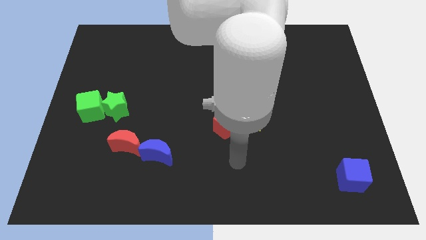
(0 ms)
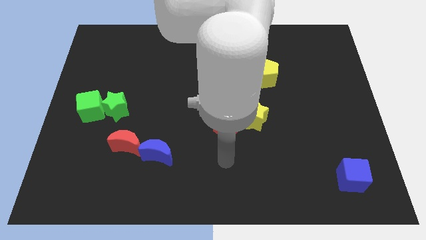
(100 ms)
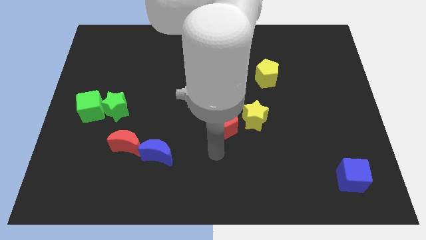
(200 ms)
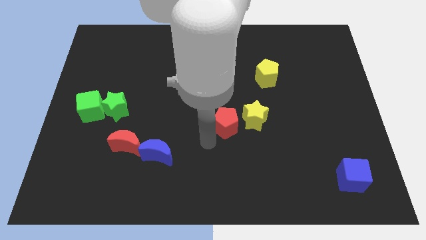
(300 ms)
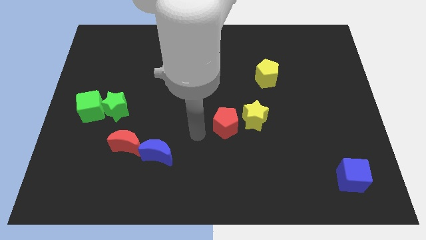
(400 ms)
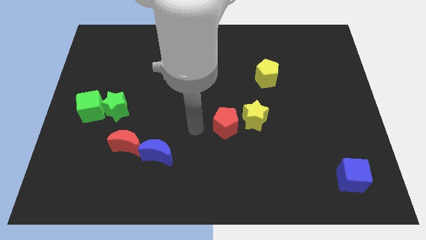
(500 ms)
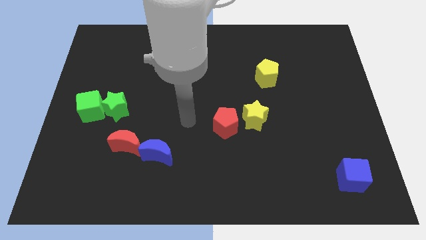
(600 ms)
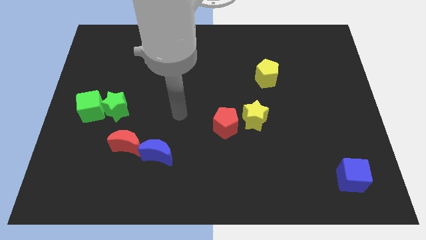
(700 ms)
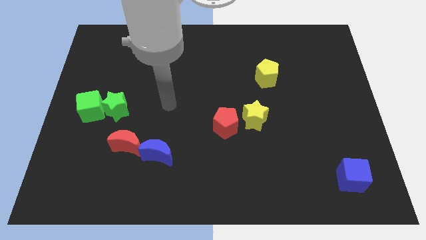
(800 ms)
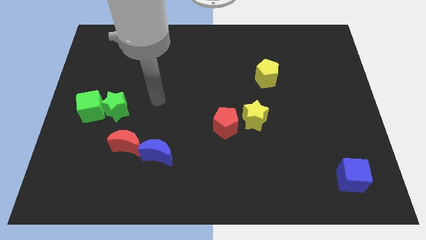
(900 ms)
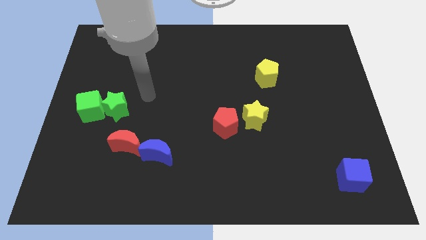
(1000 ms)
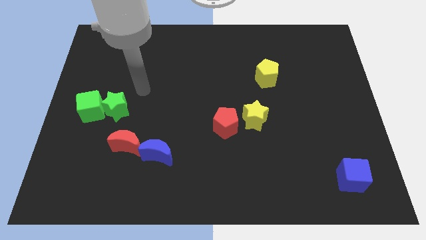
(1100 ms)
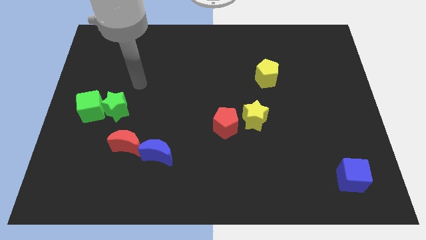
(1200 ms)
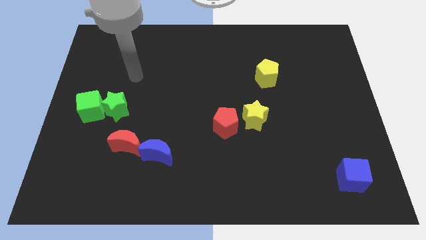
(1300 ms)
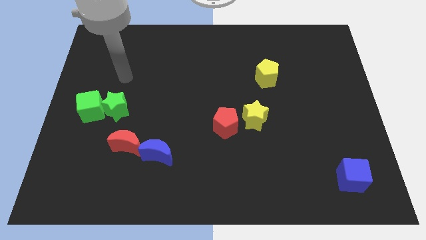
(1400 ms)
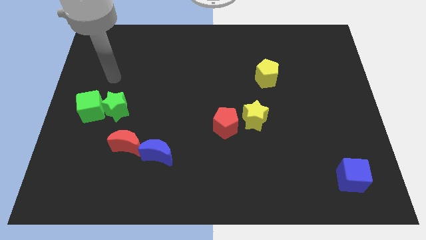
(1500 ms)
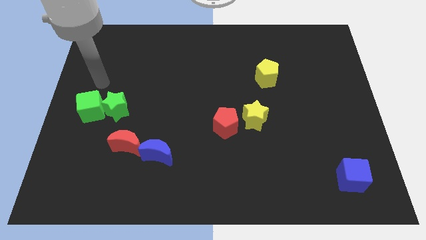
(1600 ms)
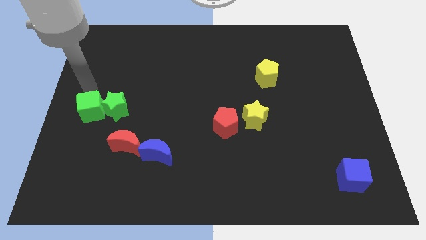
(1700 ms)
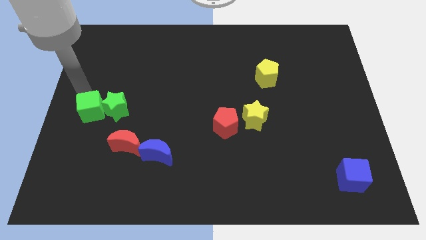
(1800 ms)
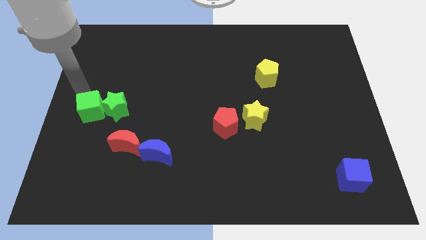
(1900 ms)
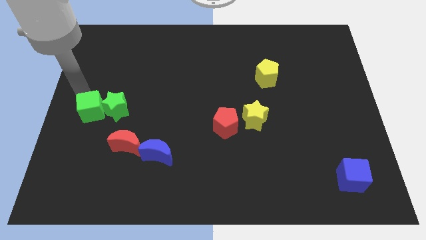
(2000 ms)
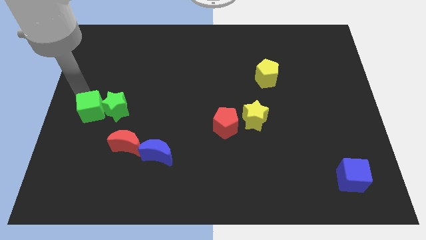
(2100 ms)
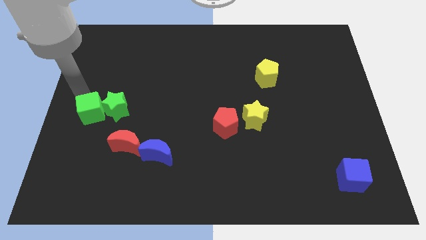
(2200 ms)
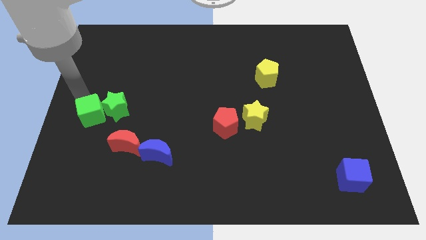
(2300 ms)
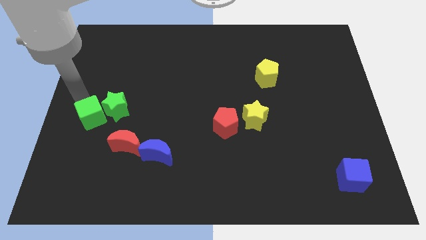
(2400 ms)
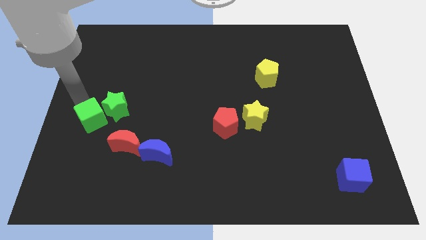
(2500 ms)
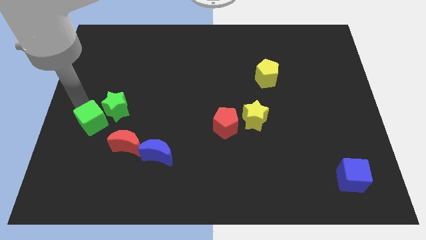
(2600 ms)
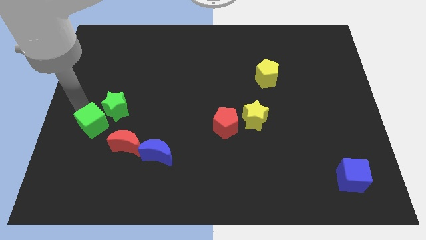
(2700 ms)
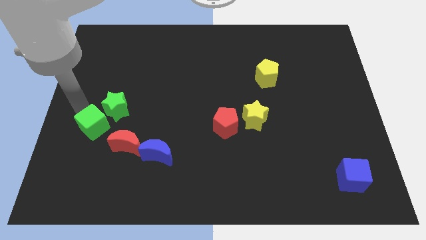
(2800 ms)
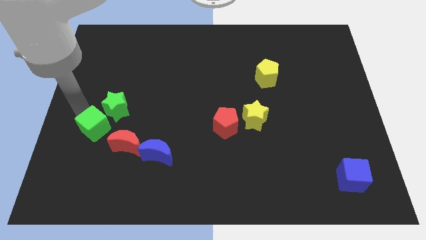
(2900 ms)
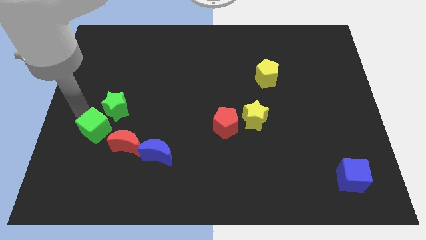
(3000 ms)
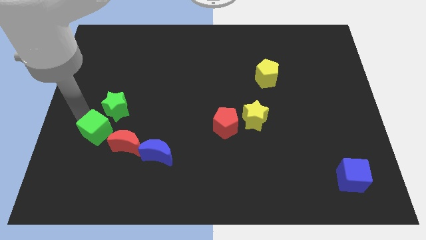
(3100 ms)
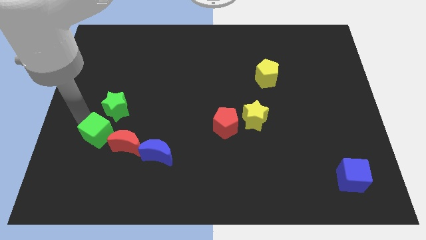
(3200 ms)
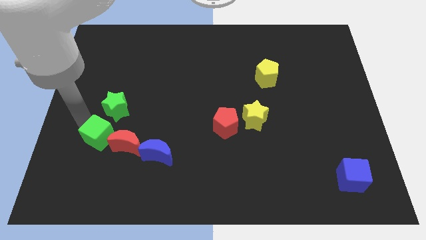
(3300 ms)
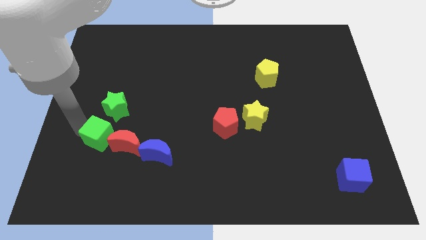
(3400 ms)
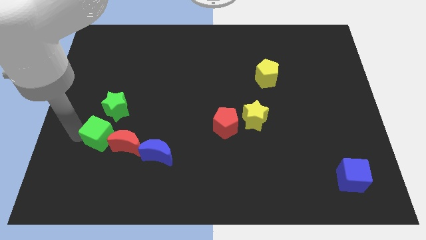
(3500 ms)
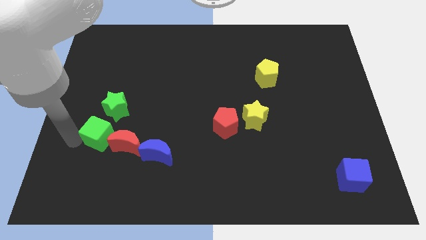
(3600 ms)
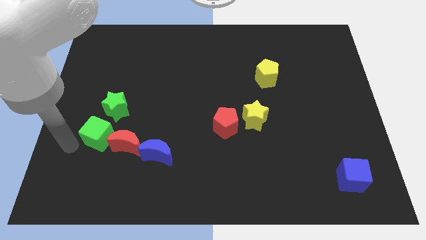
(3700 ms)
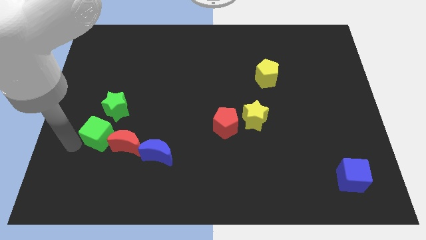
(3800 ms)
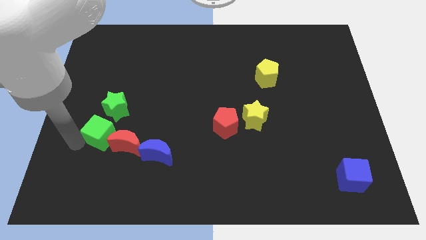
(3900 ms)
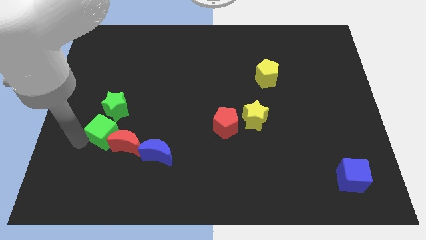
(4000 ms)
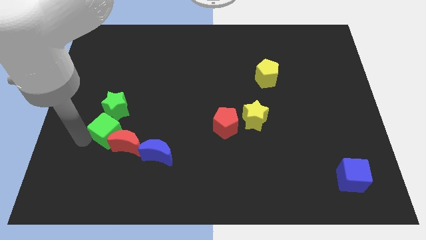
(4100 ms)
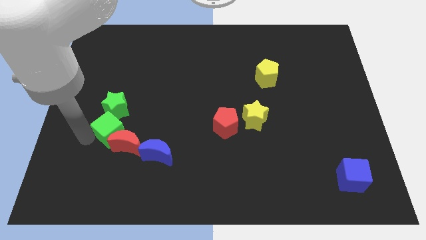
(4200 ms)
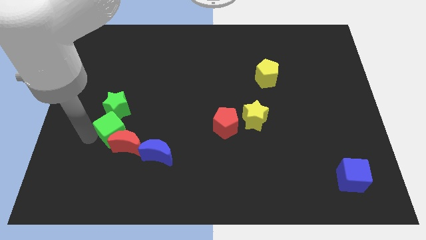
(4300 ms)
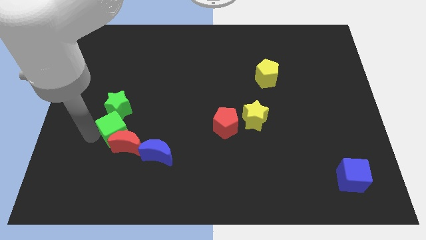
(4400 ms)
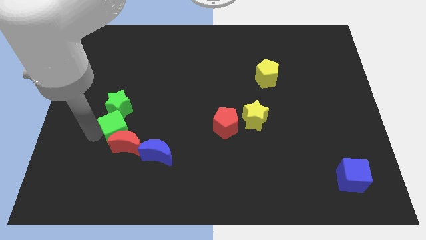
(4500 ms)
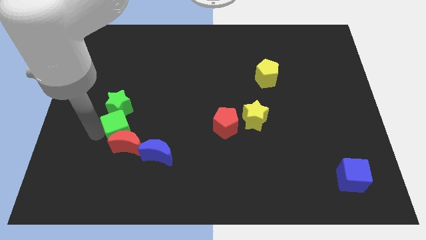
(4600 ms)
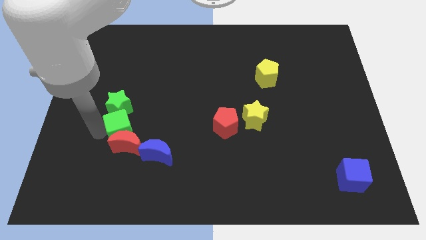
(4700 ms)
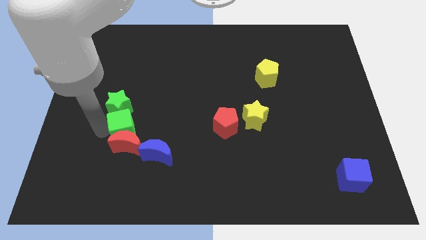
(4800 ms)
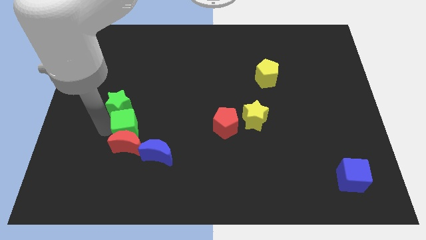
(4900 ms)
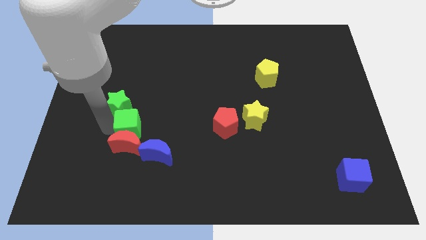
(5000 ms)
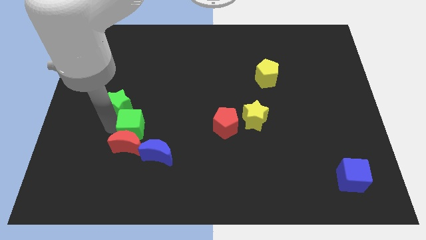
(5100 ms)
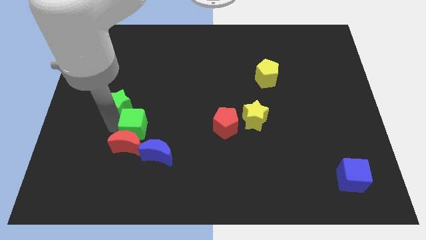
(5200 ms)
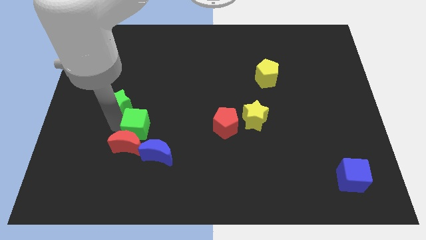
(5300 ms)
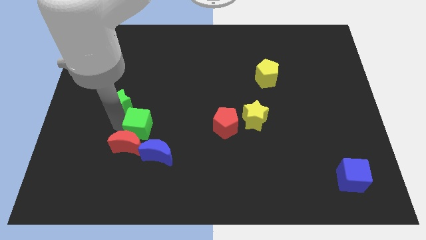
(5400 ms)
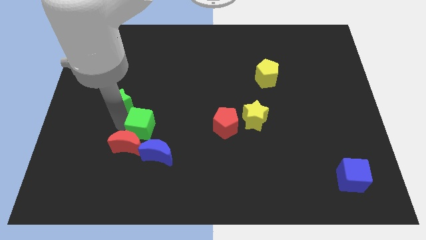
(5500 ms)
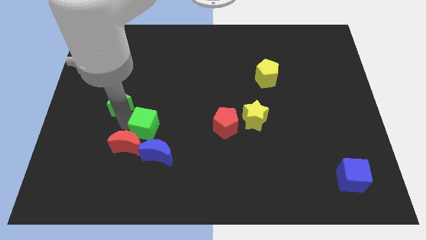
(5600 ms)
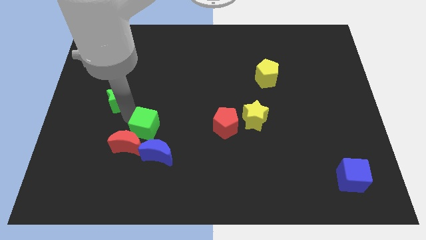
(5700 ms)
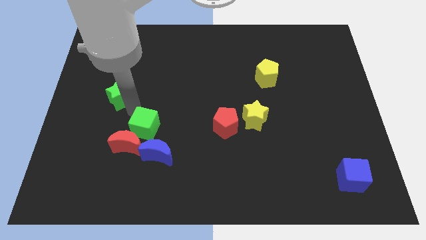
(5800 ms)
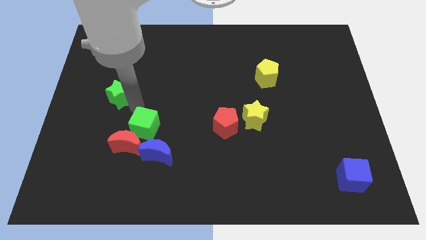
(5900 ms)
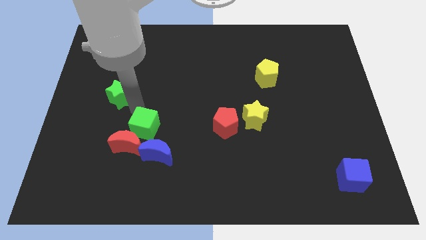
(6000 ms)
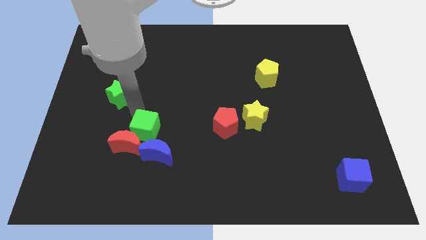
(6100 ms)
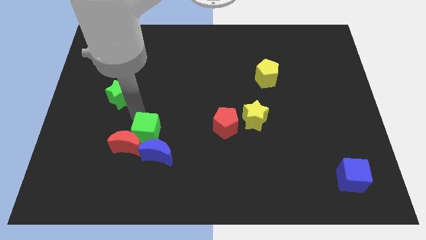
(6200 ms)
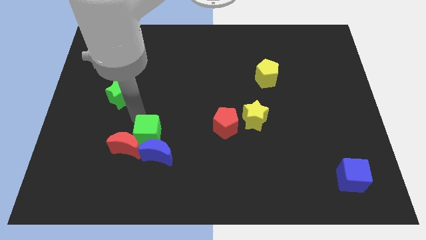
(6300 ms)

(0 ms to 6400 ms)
put the green cube next to the blue moon

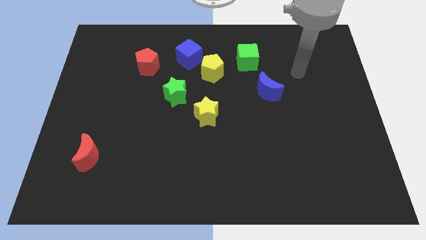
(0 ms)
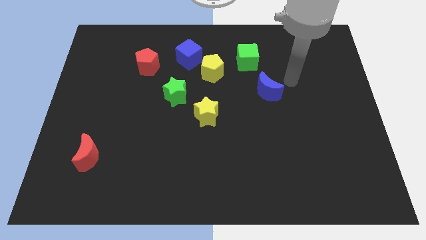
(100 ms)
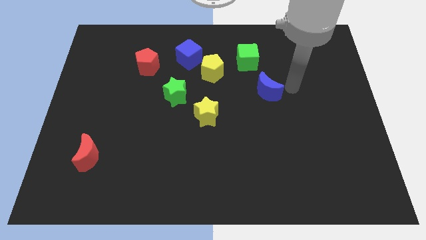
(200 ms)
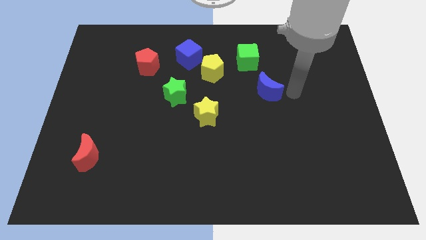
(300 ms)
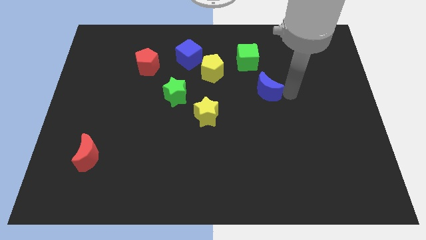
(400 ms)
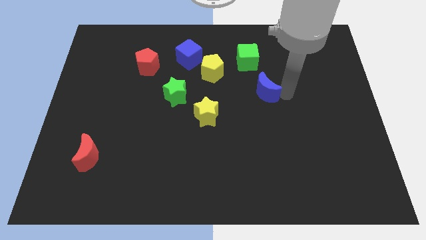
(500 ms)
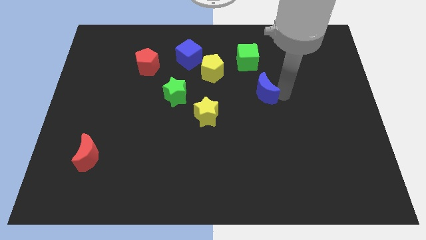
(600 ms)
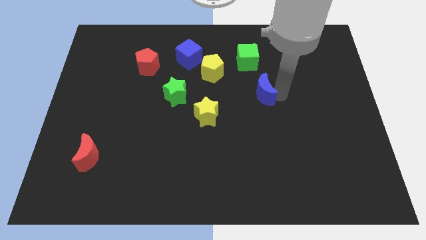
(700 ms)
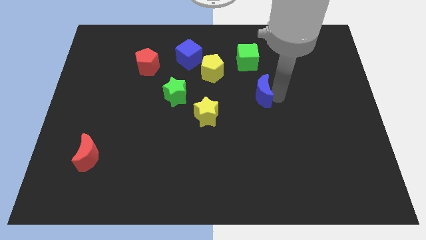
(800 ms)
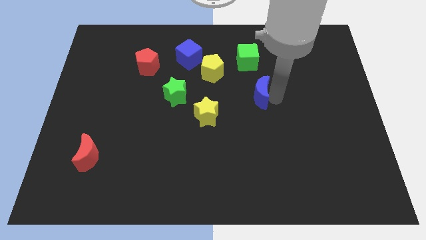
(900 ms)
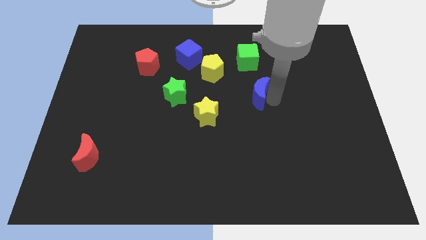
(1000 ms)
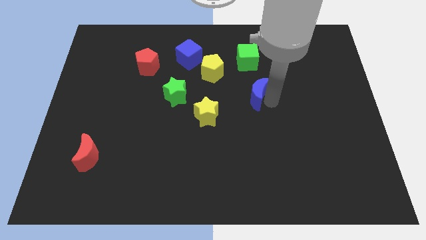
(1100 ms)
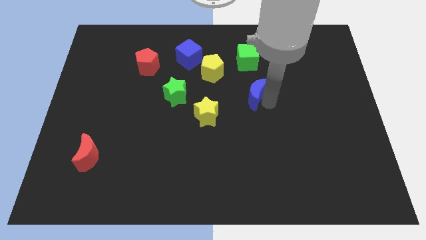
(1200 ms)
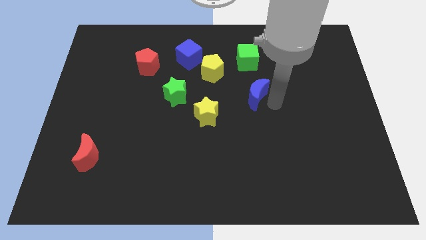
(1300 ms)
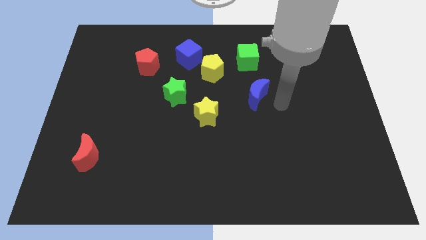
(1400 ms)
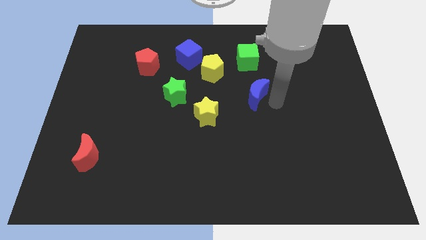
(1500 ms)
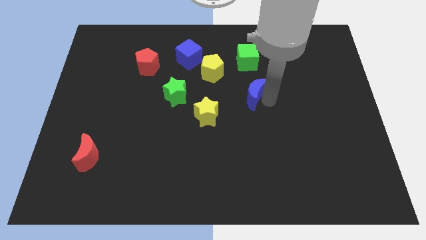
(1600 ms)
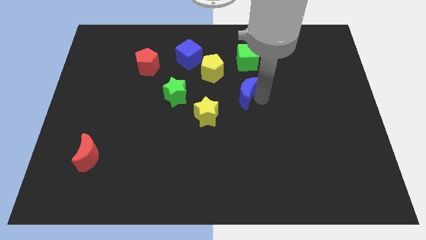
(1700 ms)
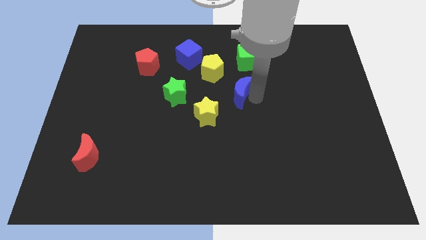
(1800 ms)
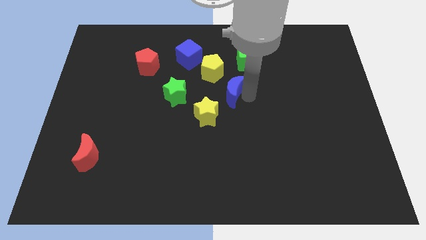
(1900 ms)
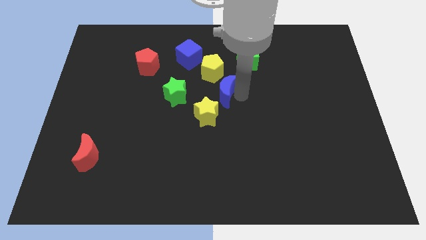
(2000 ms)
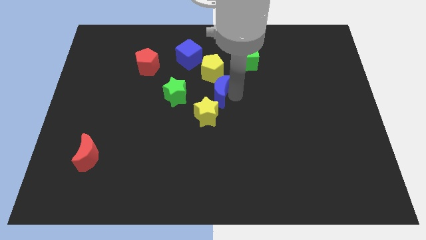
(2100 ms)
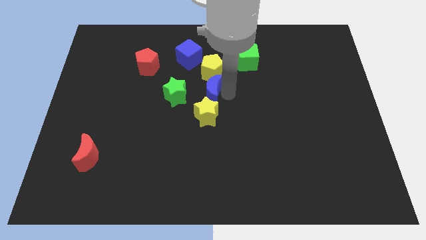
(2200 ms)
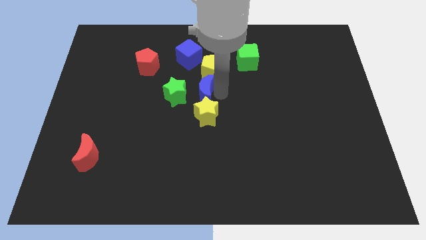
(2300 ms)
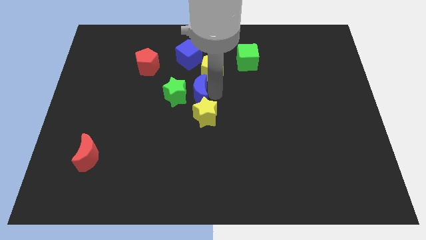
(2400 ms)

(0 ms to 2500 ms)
put the blue moon to the green star
